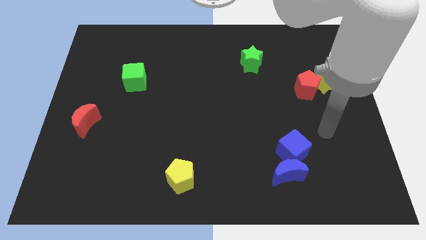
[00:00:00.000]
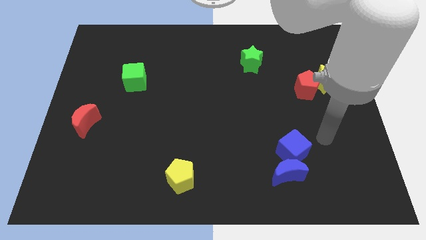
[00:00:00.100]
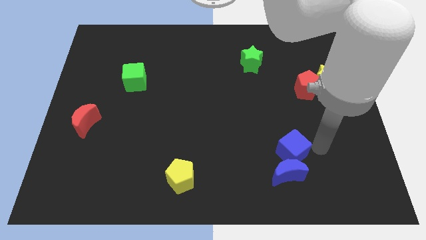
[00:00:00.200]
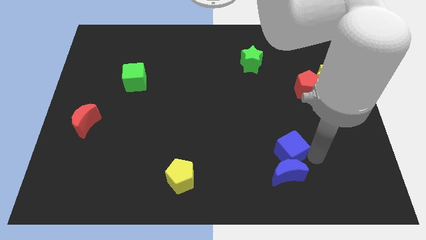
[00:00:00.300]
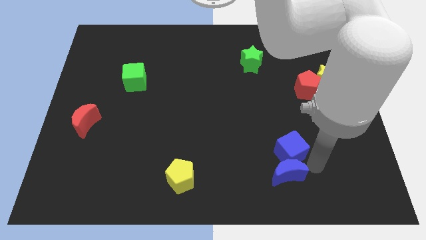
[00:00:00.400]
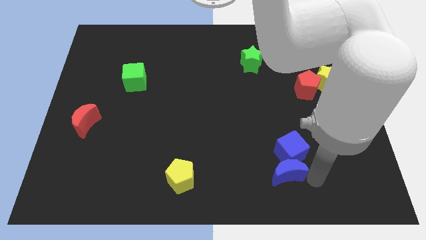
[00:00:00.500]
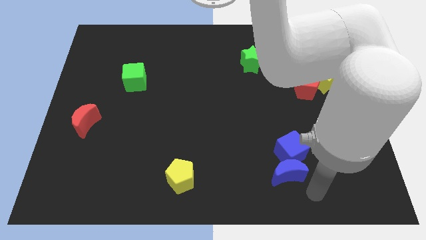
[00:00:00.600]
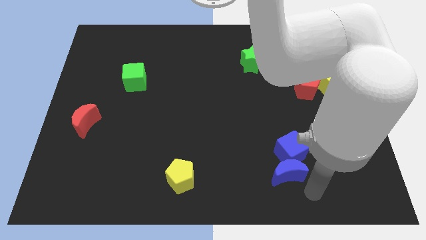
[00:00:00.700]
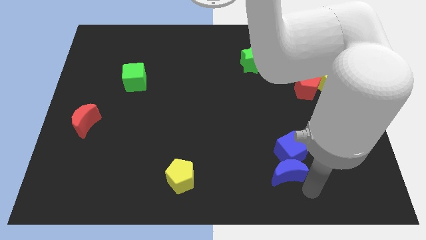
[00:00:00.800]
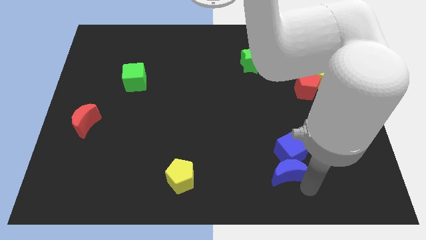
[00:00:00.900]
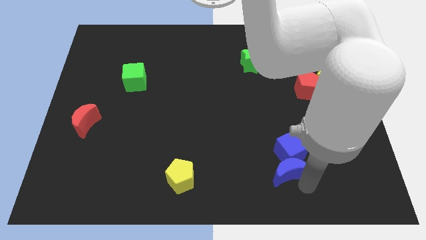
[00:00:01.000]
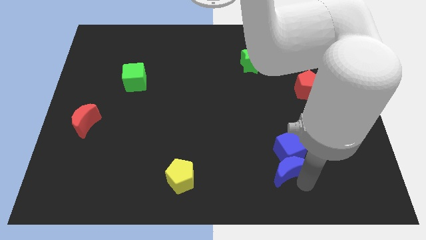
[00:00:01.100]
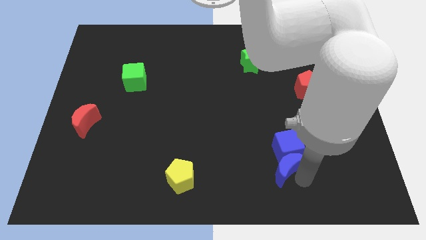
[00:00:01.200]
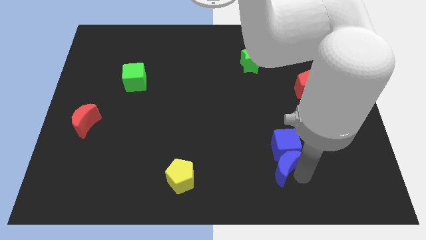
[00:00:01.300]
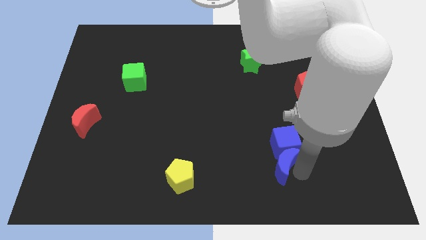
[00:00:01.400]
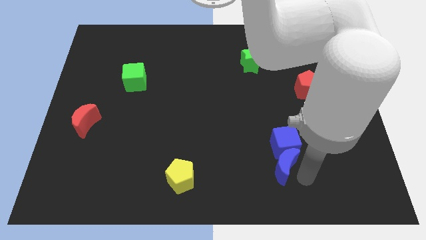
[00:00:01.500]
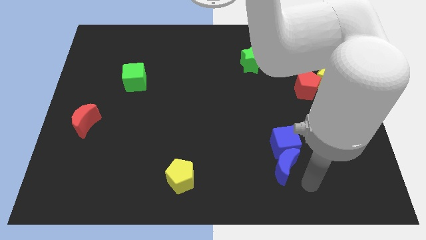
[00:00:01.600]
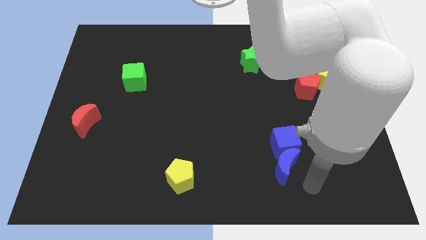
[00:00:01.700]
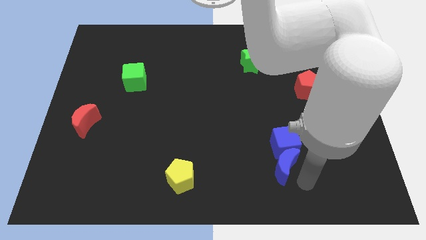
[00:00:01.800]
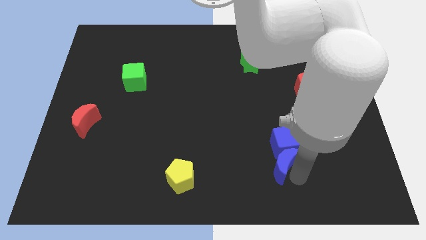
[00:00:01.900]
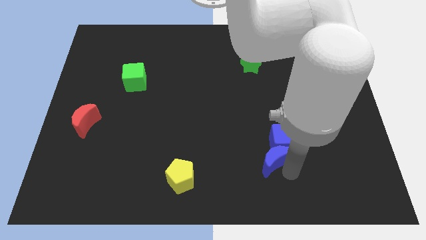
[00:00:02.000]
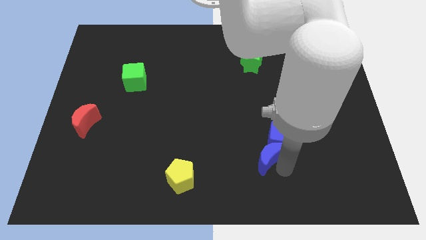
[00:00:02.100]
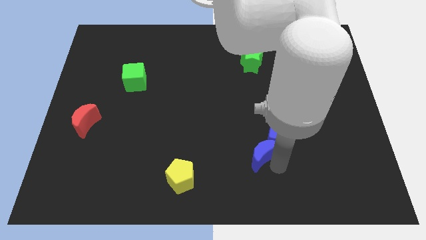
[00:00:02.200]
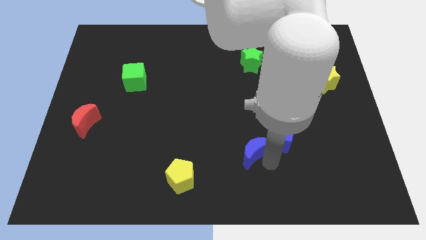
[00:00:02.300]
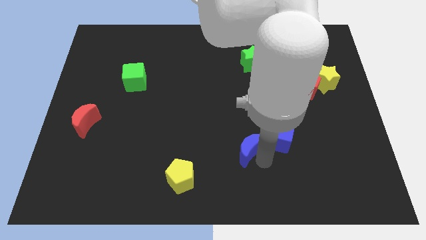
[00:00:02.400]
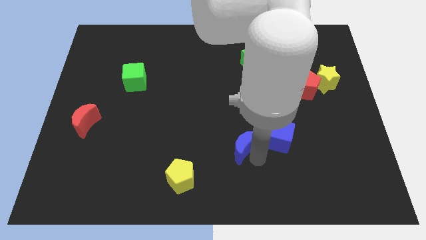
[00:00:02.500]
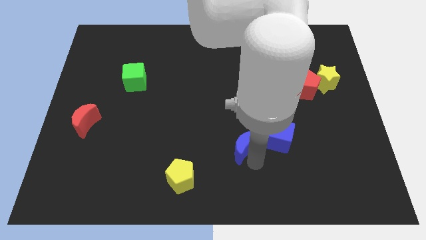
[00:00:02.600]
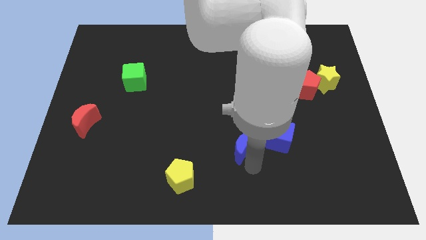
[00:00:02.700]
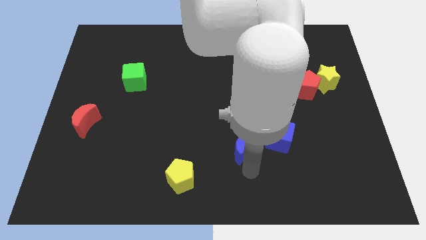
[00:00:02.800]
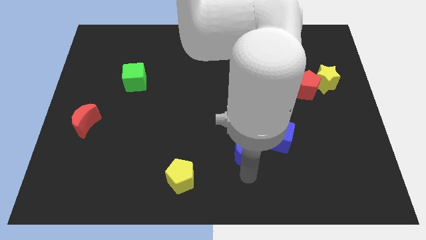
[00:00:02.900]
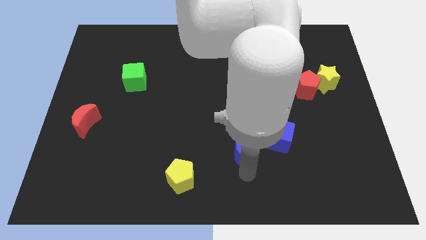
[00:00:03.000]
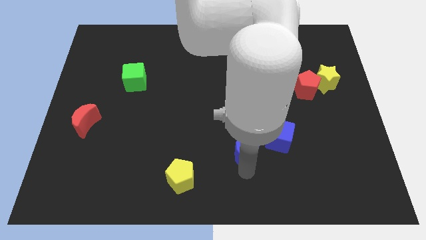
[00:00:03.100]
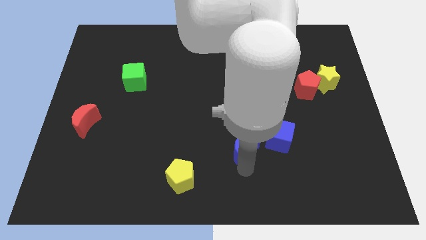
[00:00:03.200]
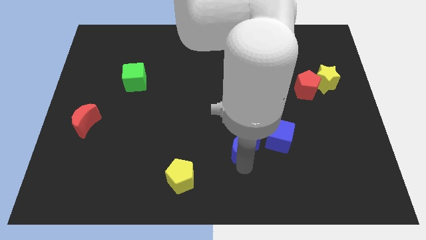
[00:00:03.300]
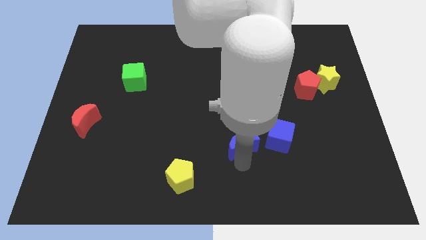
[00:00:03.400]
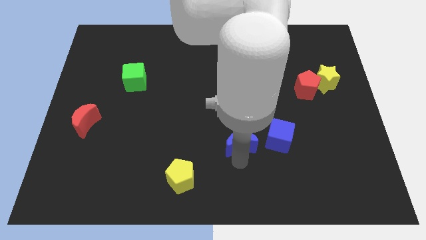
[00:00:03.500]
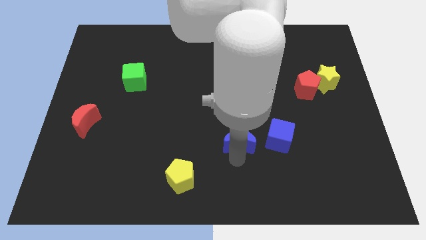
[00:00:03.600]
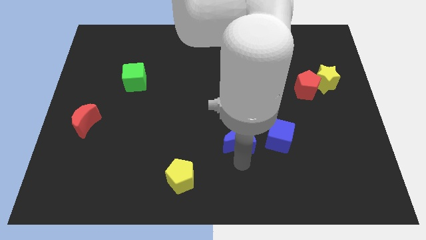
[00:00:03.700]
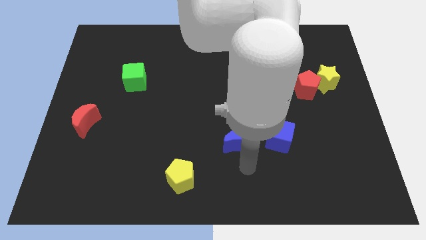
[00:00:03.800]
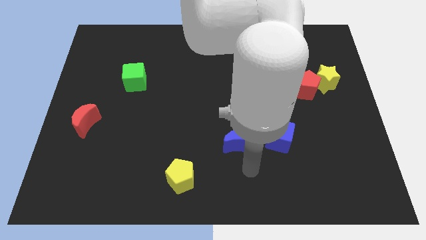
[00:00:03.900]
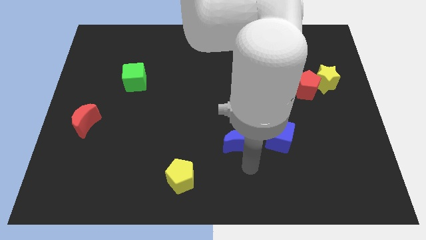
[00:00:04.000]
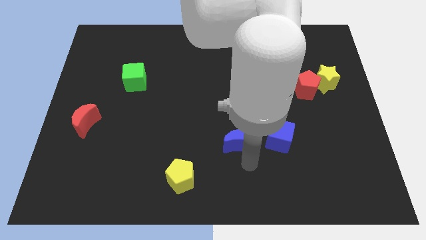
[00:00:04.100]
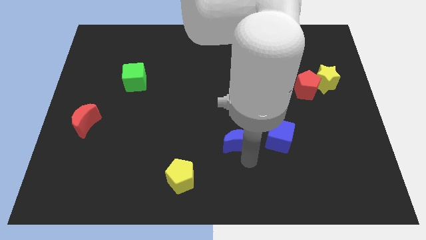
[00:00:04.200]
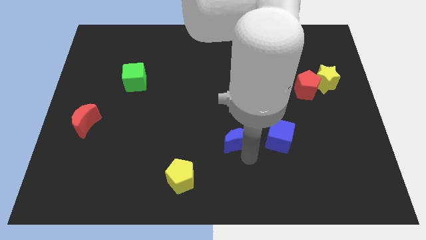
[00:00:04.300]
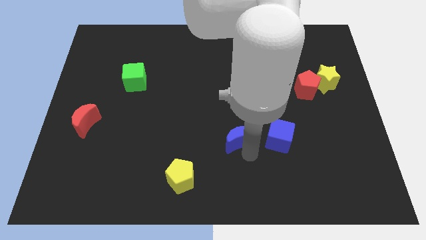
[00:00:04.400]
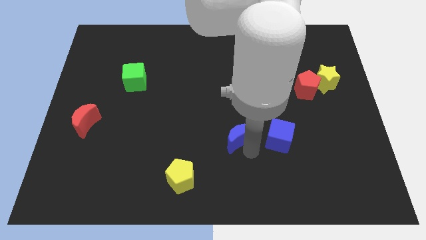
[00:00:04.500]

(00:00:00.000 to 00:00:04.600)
put the blue moon to the middle

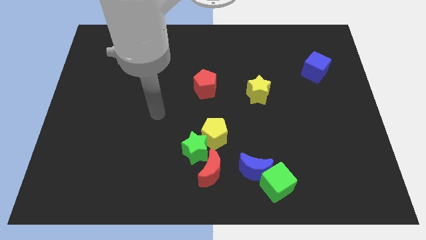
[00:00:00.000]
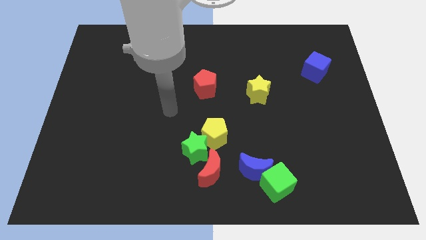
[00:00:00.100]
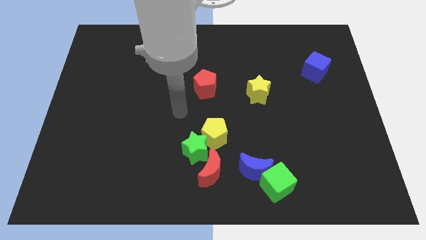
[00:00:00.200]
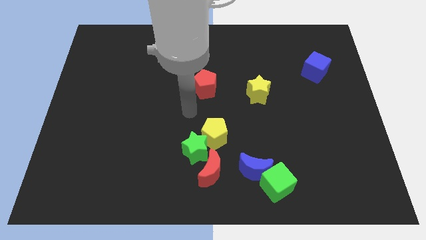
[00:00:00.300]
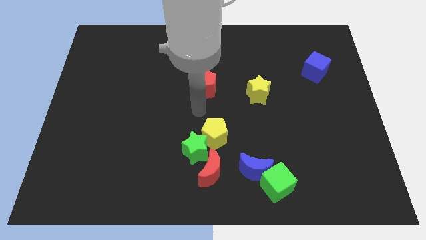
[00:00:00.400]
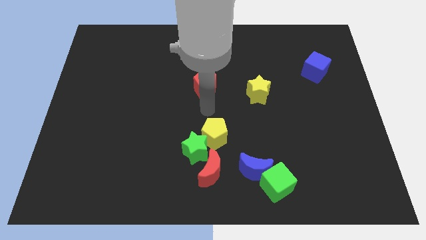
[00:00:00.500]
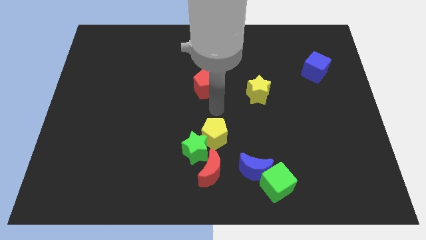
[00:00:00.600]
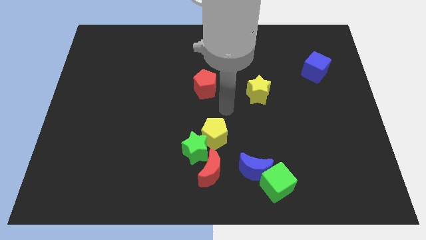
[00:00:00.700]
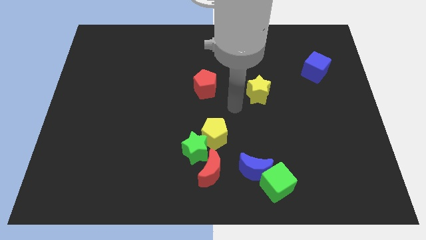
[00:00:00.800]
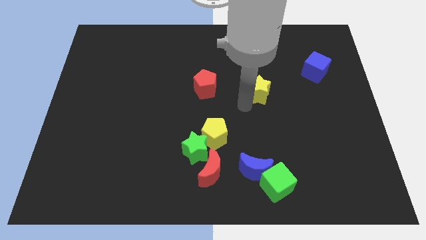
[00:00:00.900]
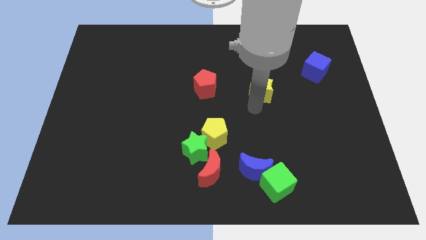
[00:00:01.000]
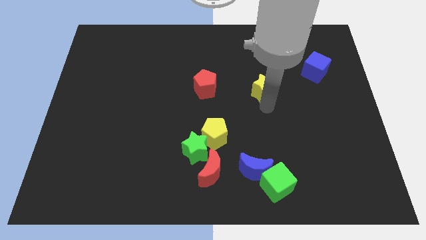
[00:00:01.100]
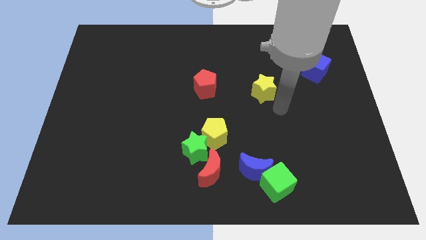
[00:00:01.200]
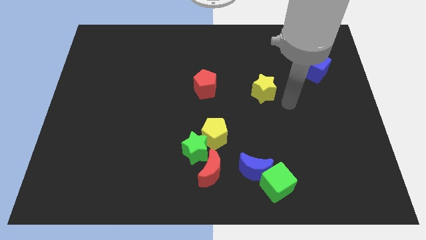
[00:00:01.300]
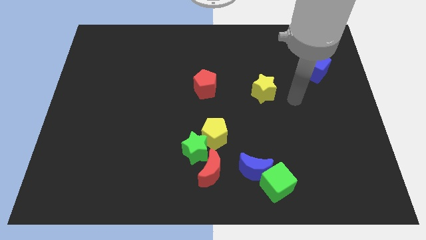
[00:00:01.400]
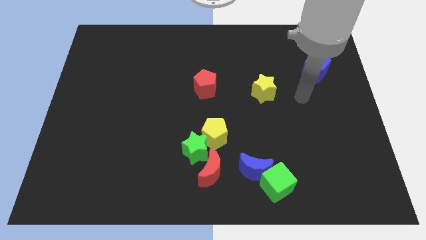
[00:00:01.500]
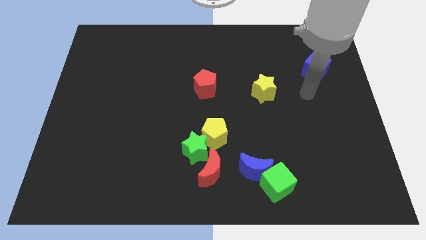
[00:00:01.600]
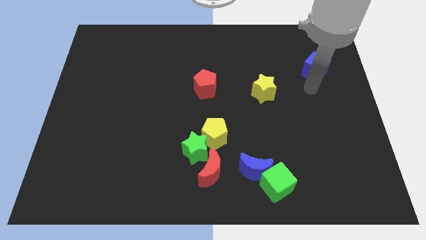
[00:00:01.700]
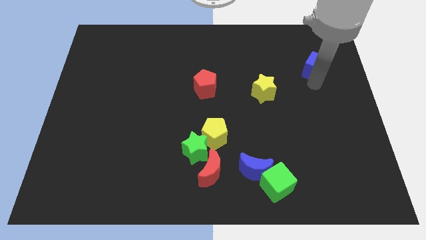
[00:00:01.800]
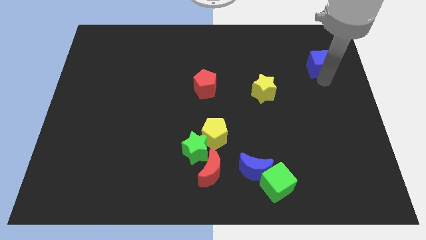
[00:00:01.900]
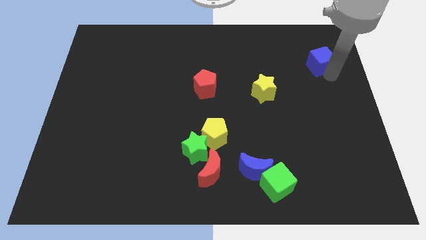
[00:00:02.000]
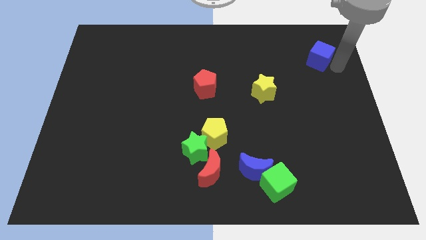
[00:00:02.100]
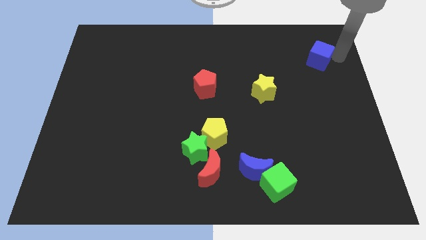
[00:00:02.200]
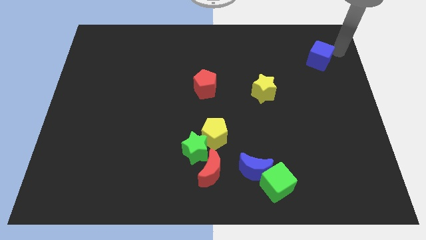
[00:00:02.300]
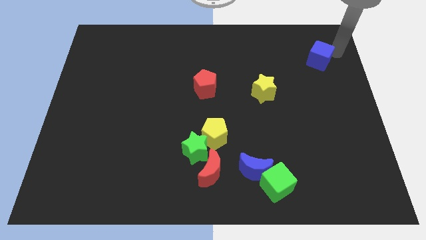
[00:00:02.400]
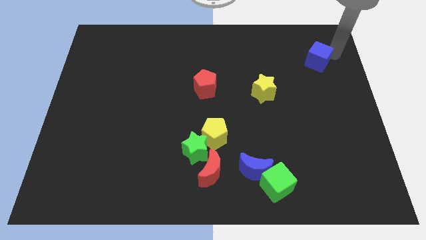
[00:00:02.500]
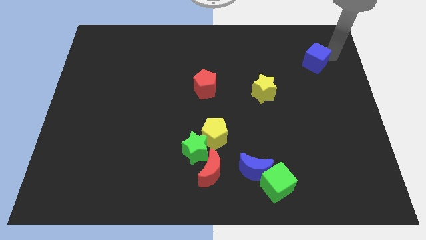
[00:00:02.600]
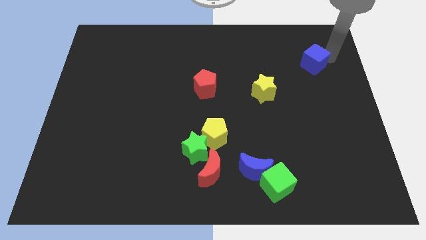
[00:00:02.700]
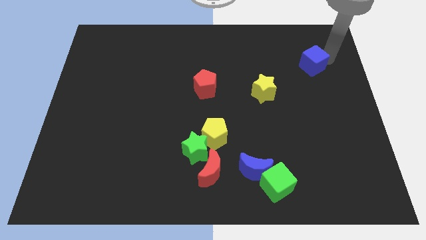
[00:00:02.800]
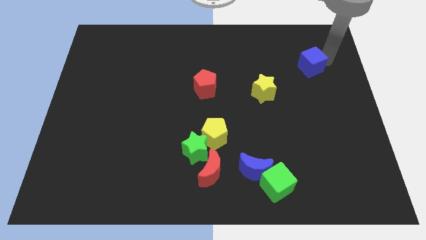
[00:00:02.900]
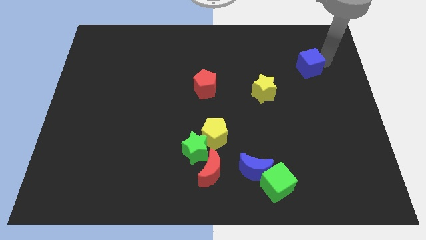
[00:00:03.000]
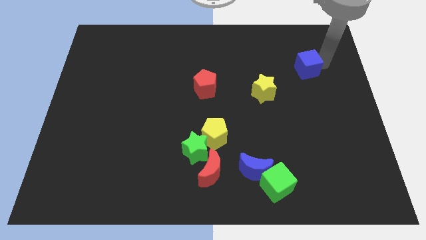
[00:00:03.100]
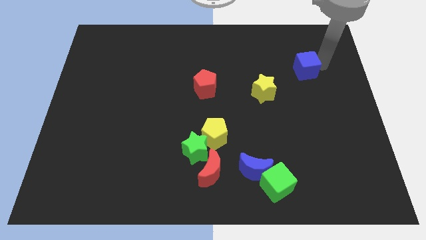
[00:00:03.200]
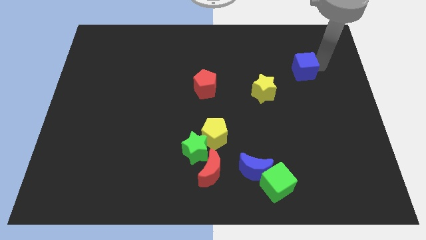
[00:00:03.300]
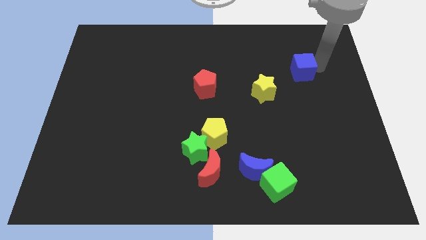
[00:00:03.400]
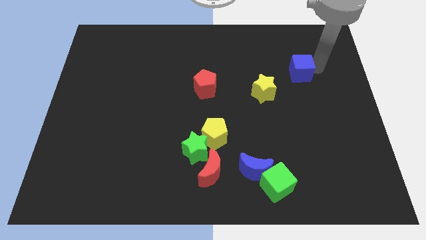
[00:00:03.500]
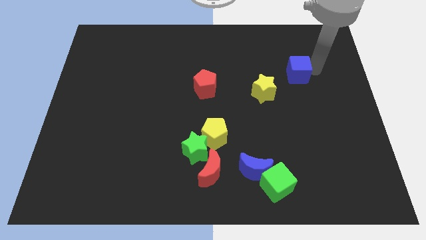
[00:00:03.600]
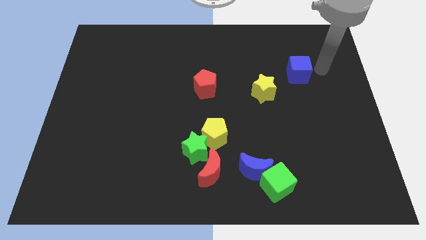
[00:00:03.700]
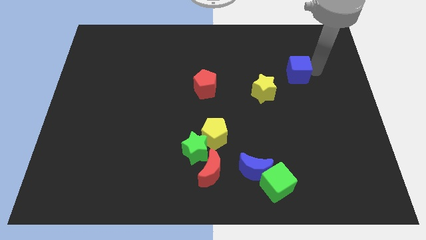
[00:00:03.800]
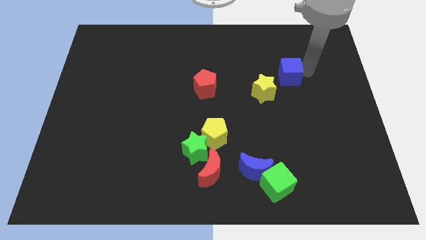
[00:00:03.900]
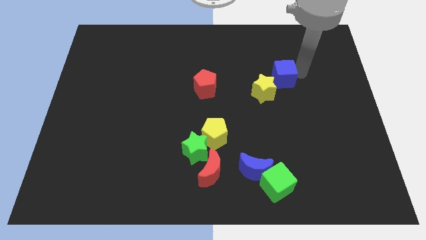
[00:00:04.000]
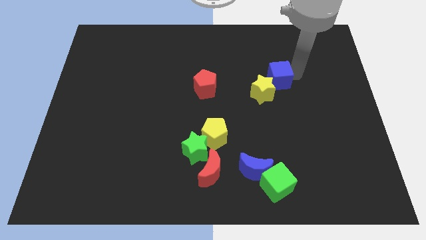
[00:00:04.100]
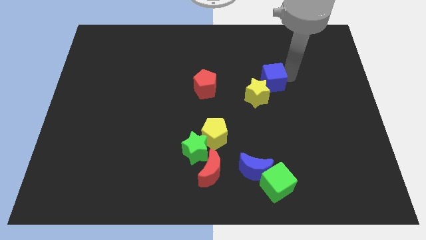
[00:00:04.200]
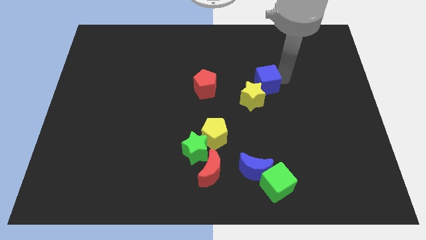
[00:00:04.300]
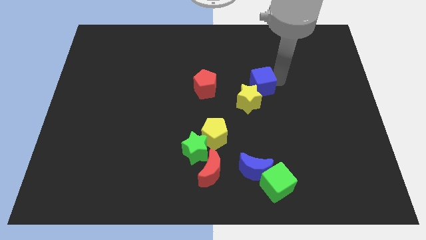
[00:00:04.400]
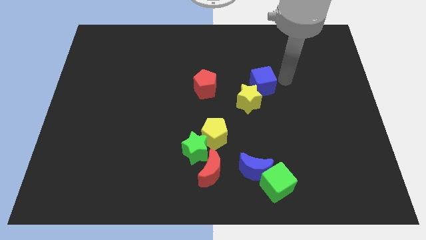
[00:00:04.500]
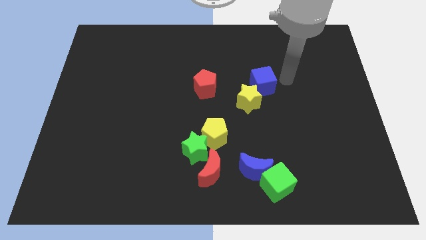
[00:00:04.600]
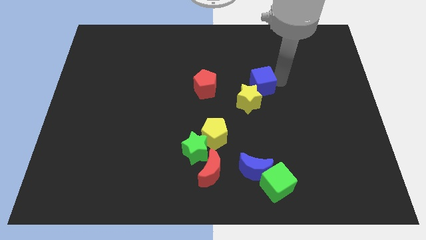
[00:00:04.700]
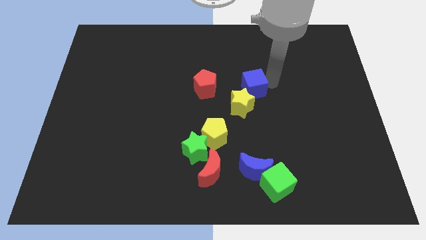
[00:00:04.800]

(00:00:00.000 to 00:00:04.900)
move the blue cube to the middle
